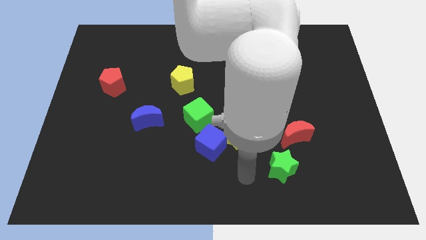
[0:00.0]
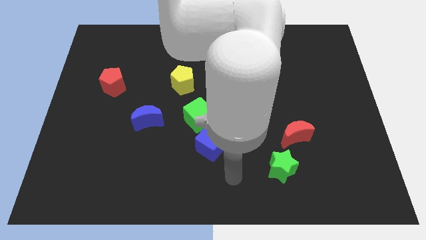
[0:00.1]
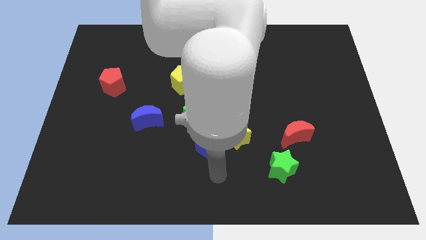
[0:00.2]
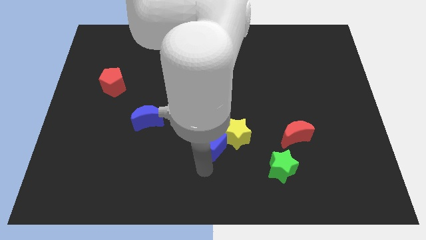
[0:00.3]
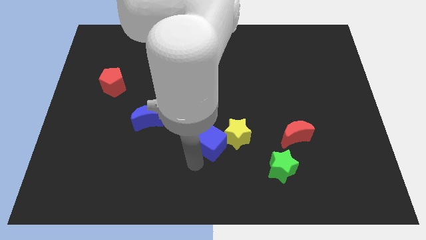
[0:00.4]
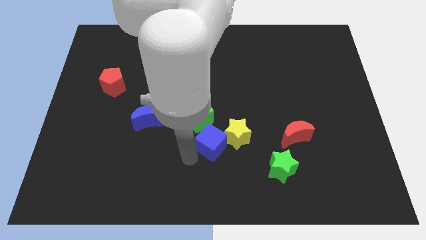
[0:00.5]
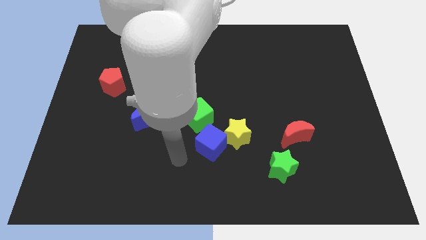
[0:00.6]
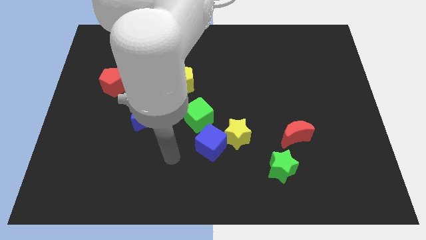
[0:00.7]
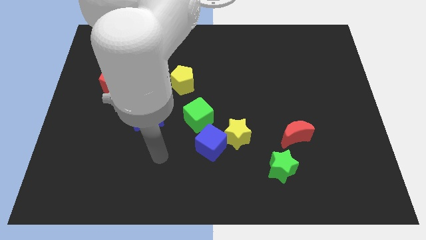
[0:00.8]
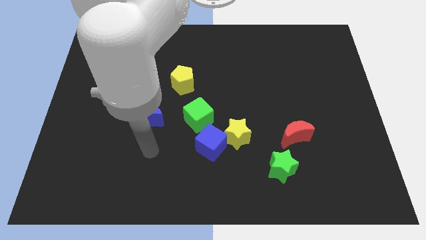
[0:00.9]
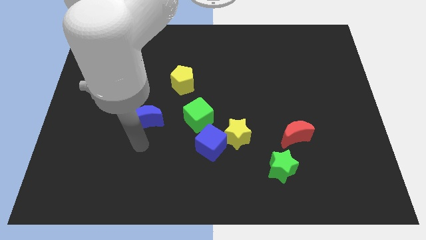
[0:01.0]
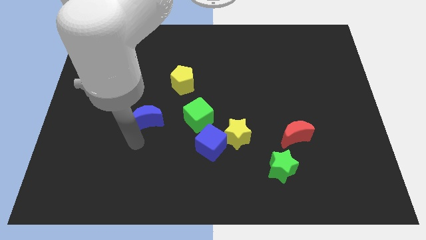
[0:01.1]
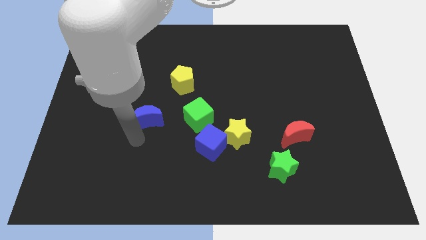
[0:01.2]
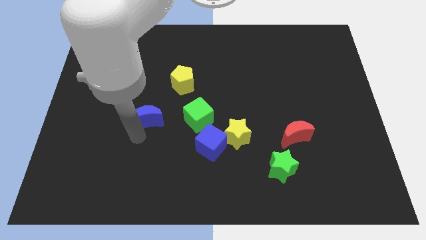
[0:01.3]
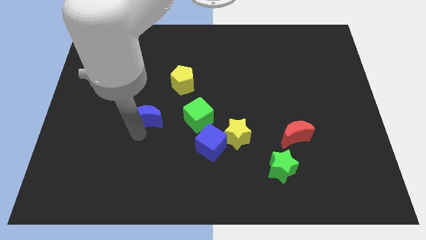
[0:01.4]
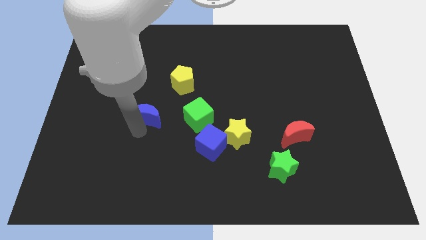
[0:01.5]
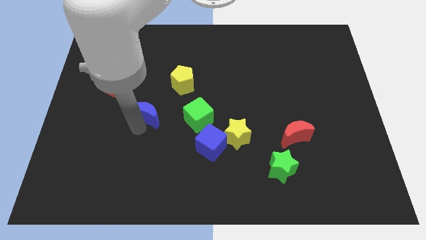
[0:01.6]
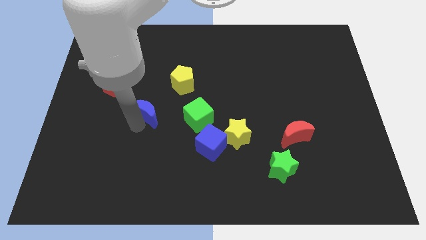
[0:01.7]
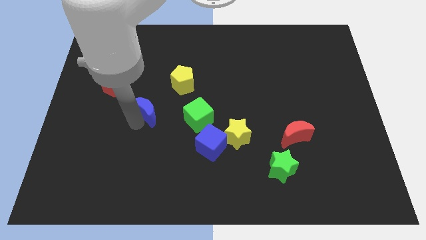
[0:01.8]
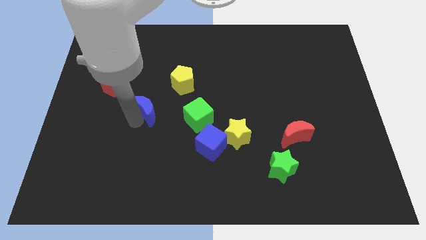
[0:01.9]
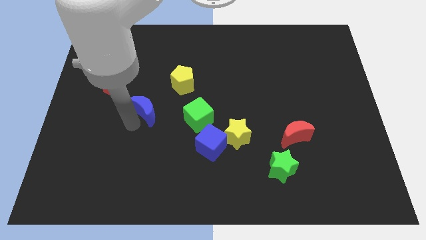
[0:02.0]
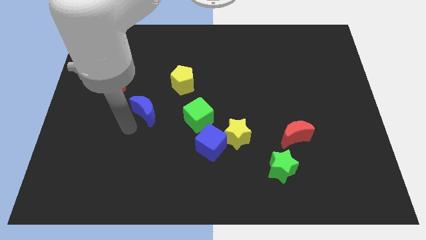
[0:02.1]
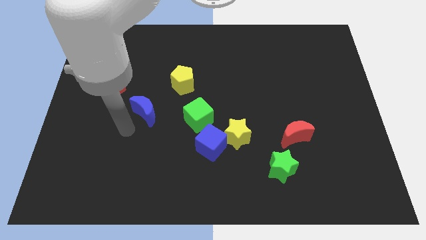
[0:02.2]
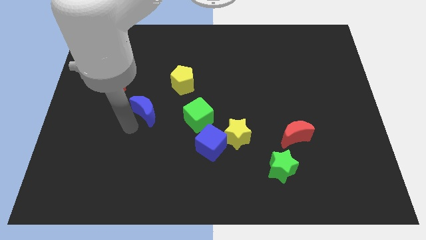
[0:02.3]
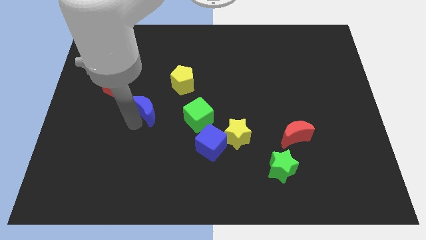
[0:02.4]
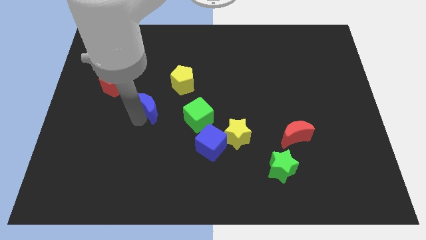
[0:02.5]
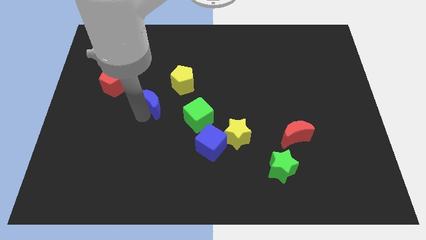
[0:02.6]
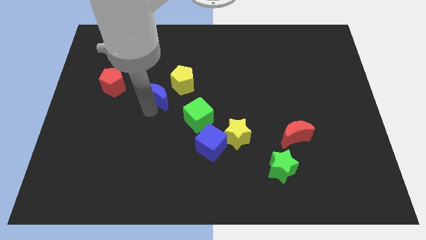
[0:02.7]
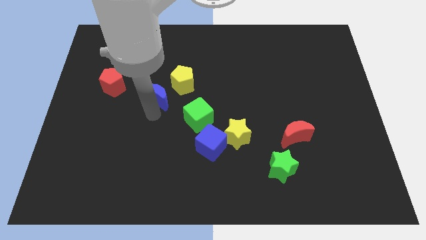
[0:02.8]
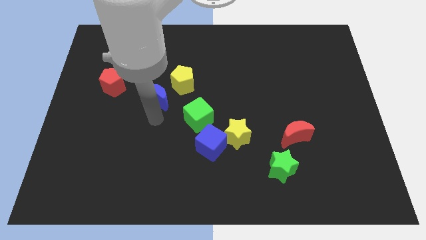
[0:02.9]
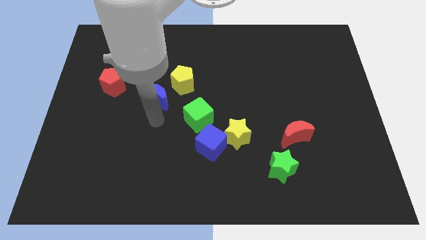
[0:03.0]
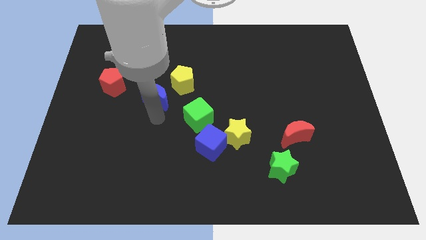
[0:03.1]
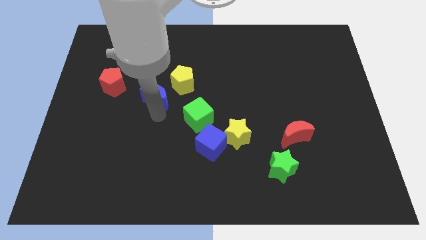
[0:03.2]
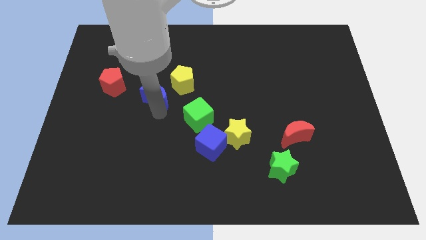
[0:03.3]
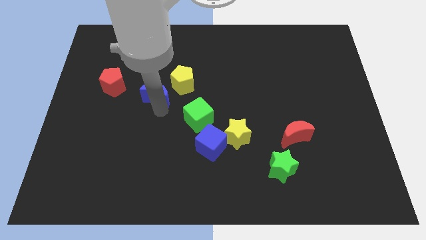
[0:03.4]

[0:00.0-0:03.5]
push the blue moon slightly upwards

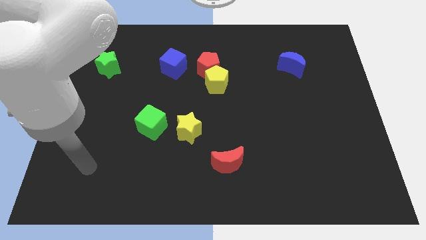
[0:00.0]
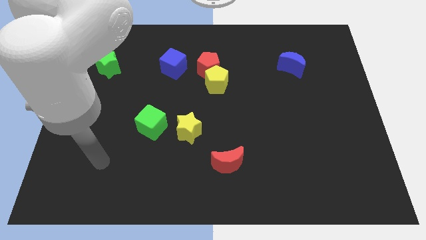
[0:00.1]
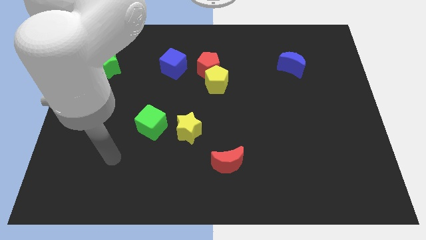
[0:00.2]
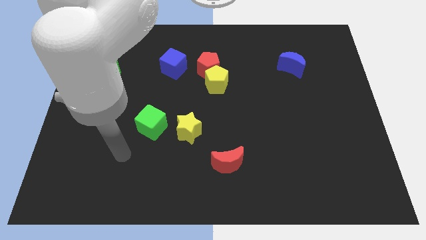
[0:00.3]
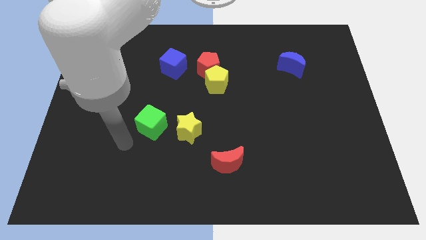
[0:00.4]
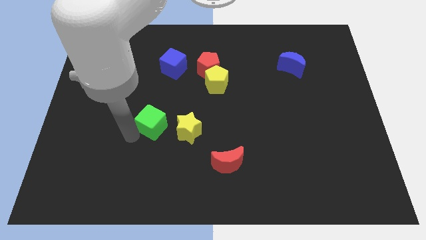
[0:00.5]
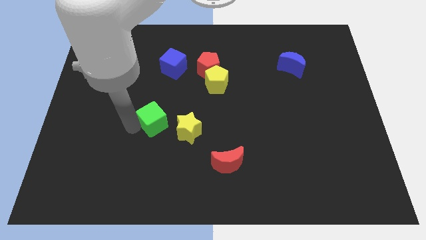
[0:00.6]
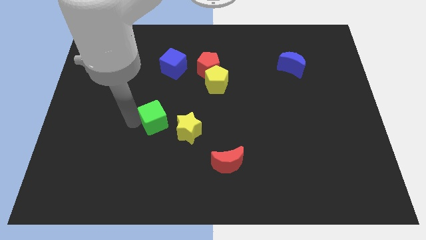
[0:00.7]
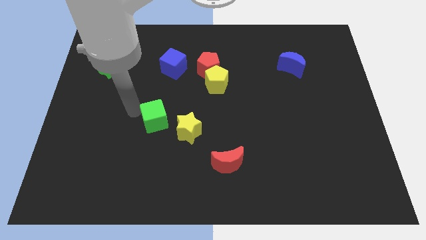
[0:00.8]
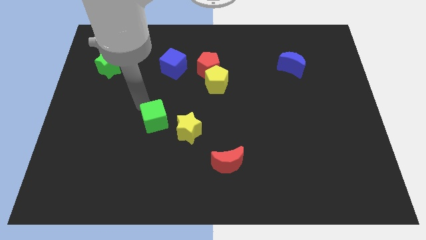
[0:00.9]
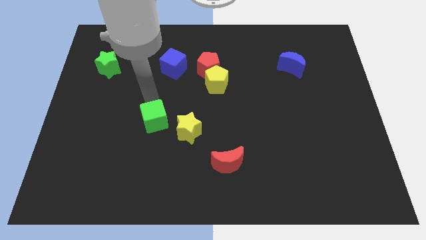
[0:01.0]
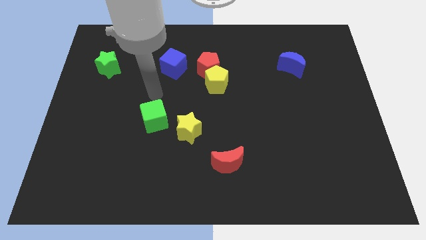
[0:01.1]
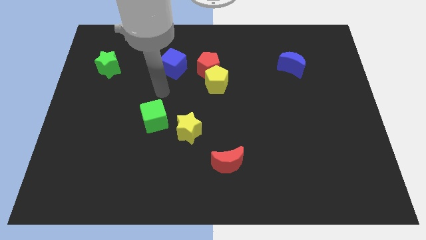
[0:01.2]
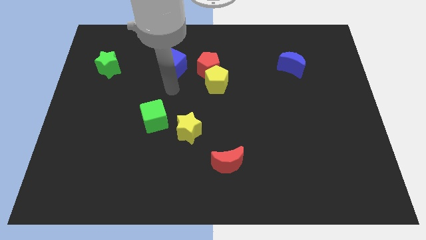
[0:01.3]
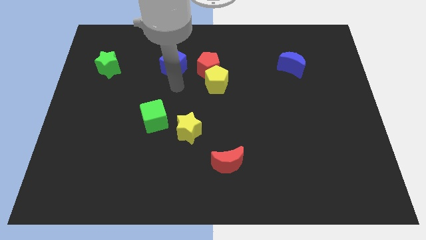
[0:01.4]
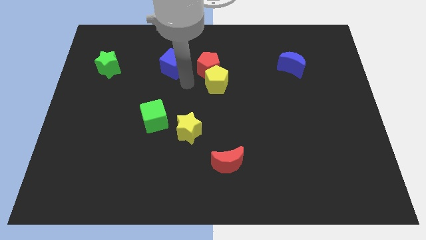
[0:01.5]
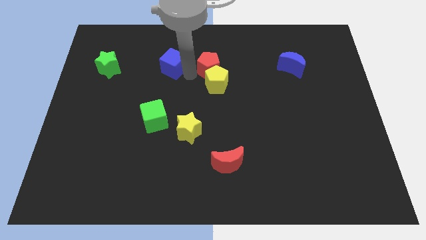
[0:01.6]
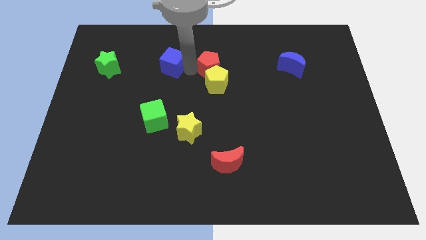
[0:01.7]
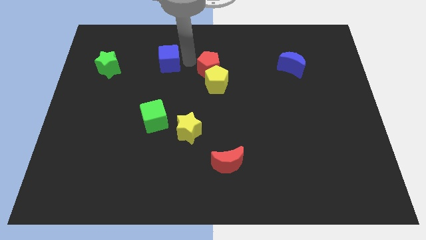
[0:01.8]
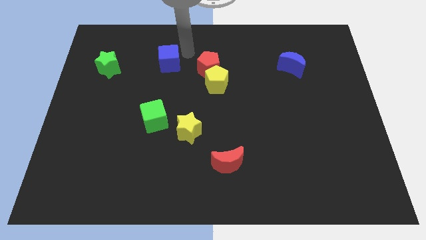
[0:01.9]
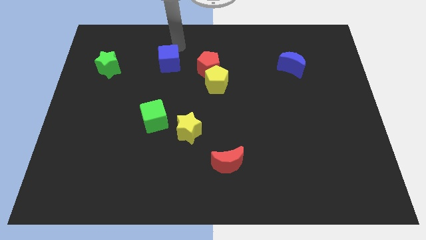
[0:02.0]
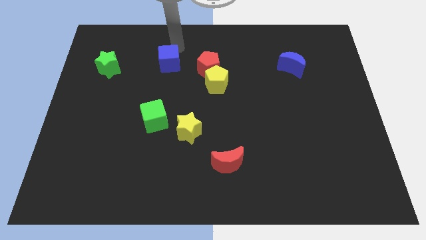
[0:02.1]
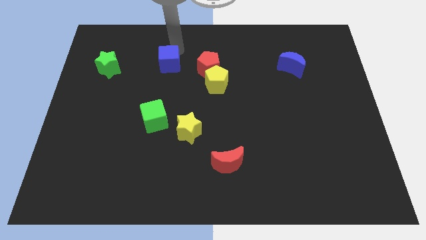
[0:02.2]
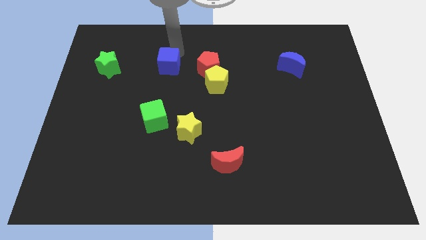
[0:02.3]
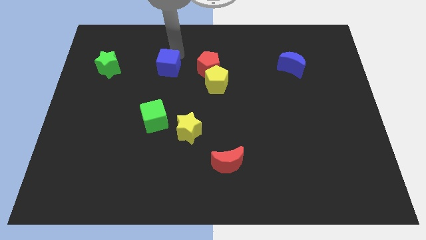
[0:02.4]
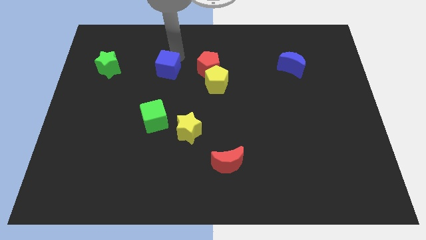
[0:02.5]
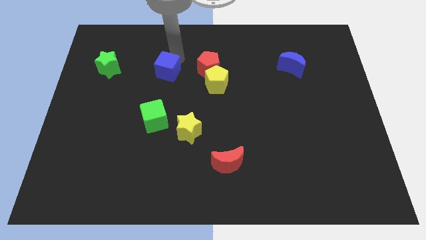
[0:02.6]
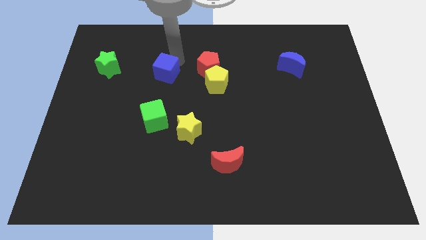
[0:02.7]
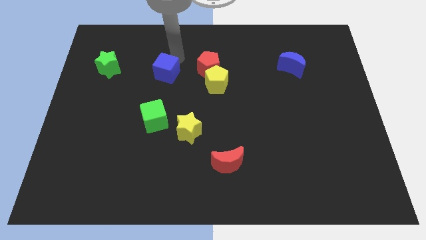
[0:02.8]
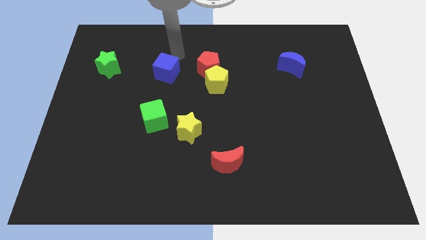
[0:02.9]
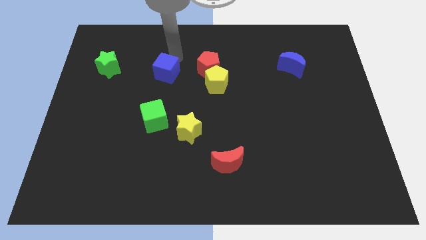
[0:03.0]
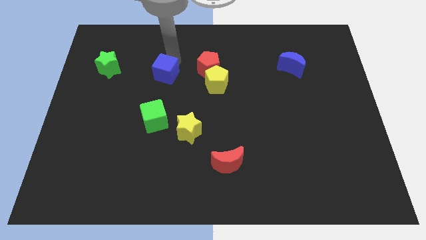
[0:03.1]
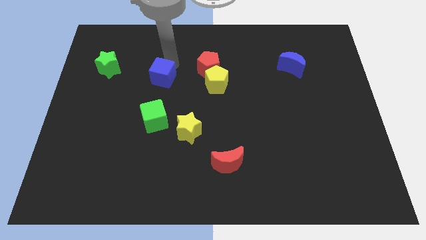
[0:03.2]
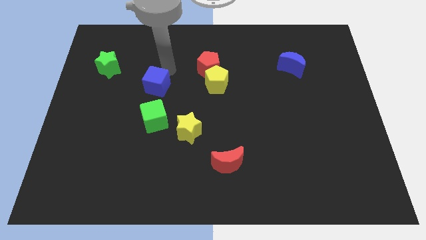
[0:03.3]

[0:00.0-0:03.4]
slightly move the blue cube down and then left

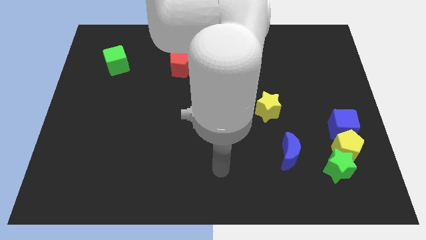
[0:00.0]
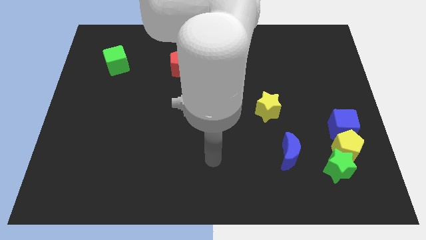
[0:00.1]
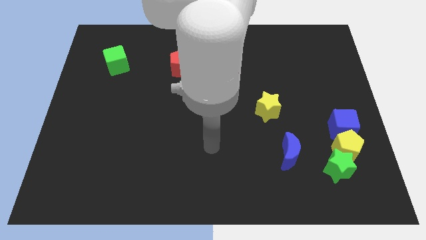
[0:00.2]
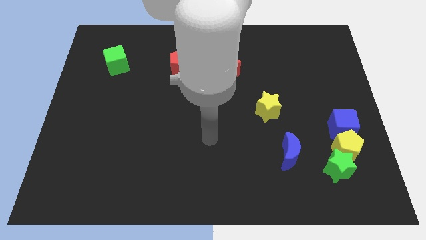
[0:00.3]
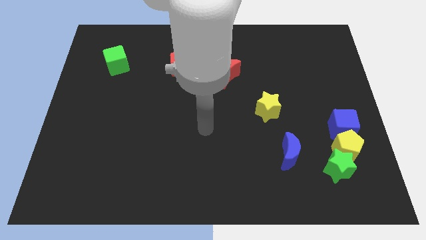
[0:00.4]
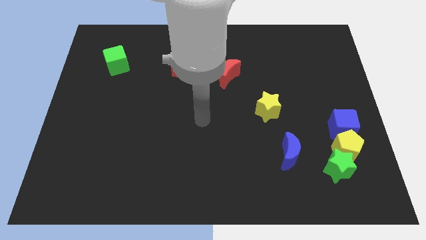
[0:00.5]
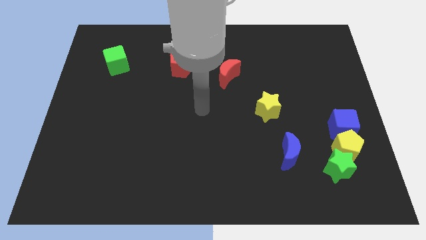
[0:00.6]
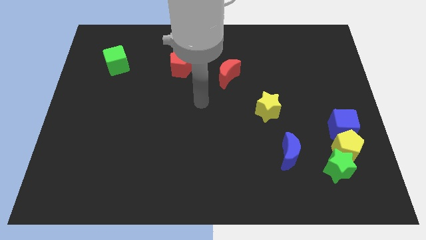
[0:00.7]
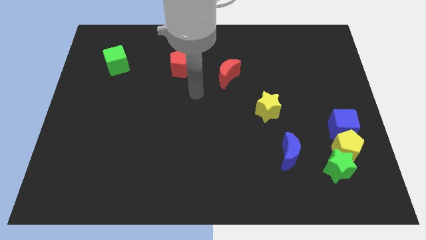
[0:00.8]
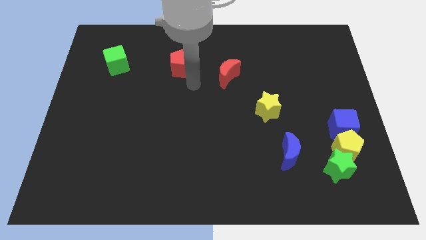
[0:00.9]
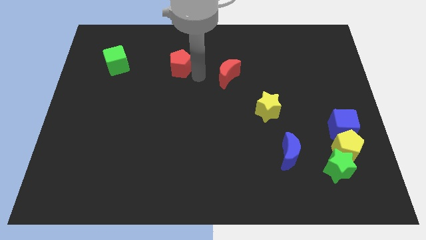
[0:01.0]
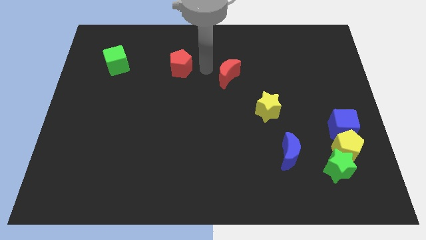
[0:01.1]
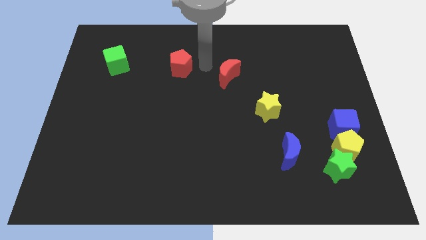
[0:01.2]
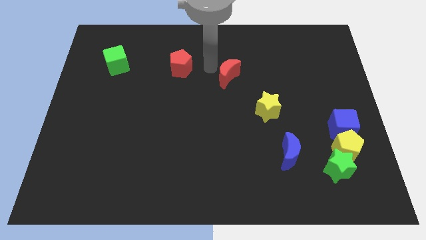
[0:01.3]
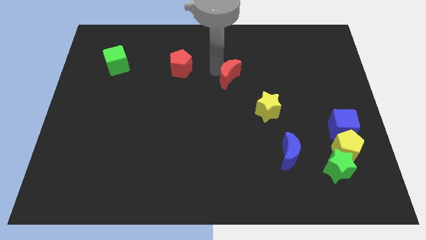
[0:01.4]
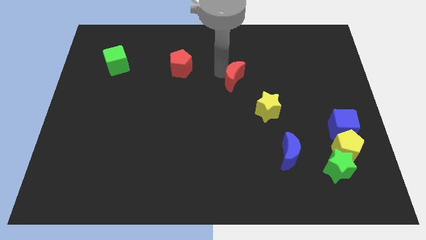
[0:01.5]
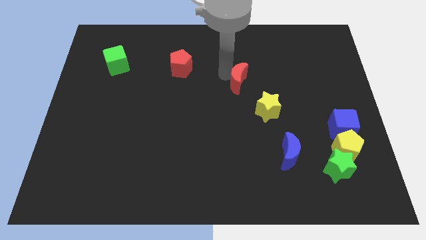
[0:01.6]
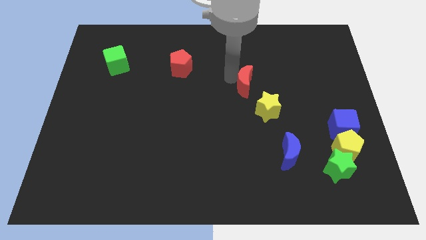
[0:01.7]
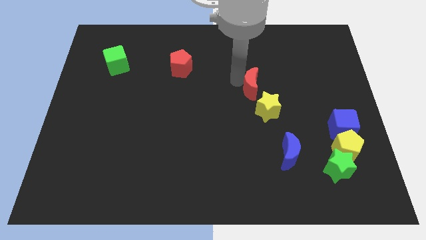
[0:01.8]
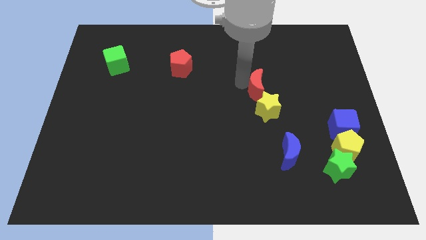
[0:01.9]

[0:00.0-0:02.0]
move the red moon somewhat downwards and to the right
